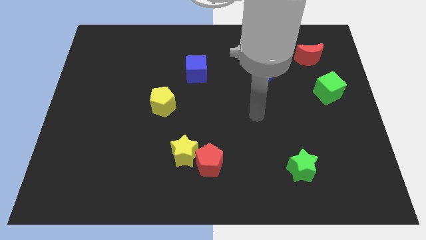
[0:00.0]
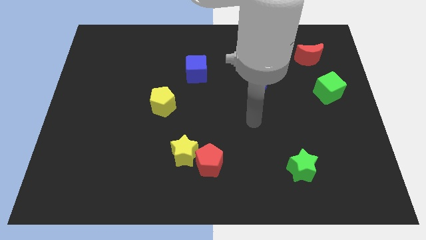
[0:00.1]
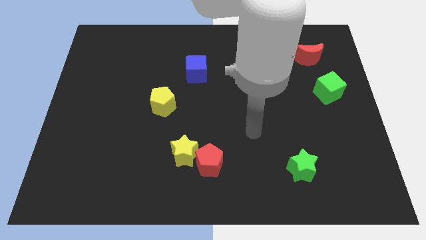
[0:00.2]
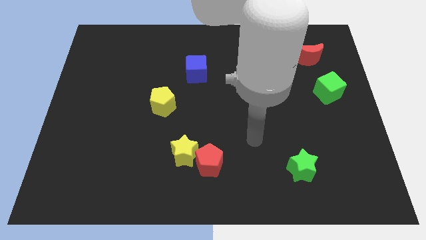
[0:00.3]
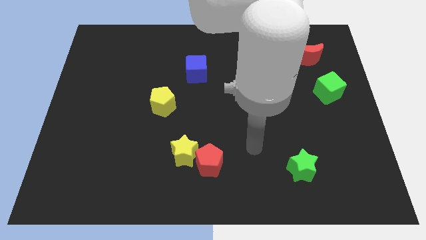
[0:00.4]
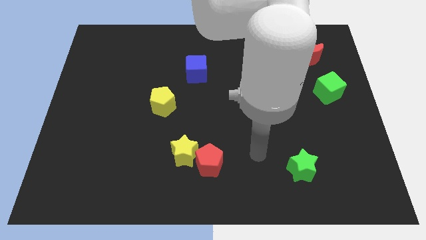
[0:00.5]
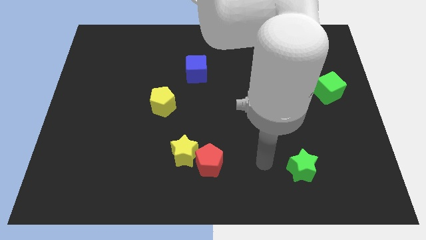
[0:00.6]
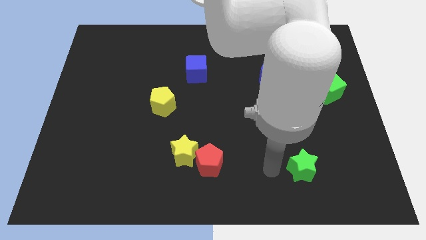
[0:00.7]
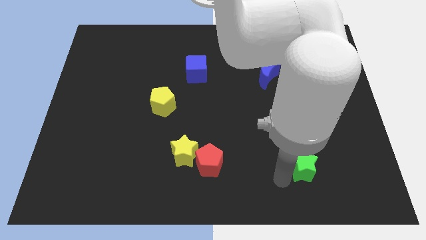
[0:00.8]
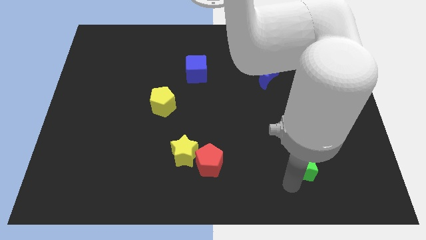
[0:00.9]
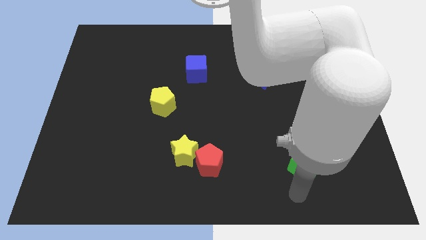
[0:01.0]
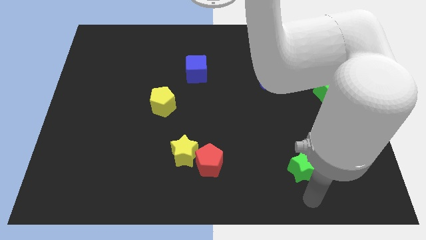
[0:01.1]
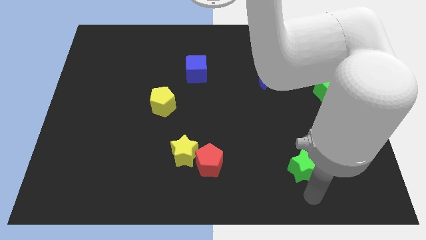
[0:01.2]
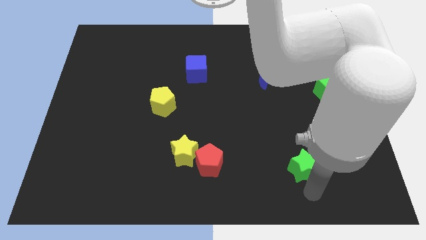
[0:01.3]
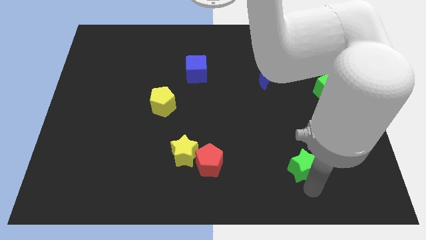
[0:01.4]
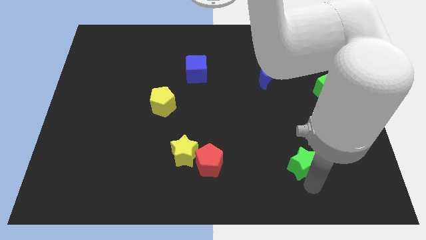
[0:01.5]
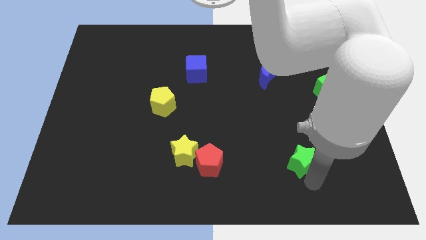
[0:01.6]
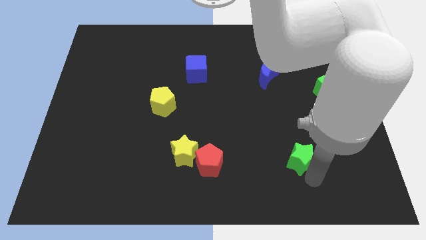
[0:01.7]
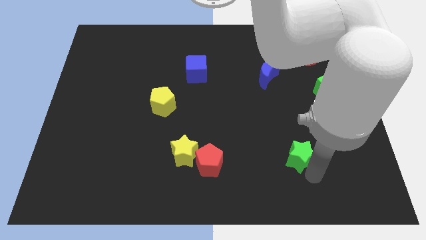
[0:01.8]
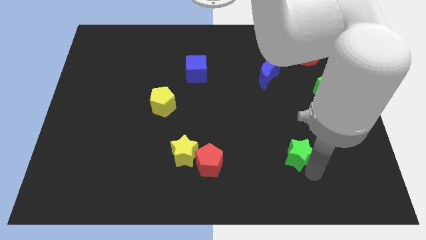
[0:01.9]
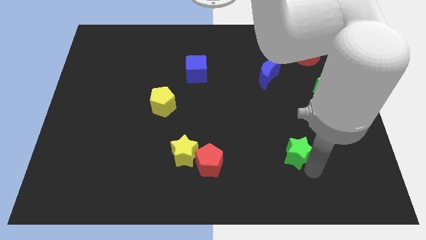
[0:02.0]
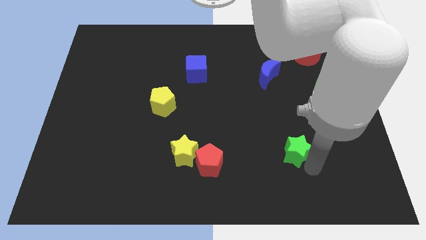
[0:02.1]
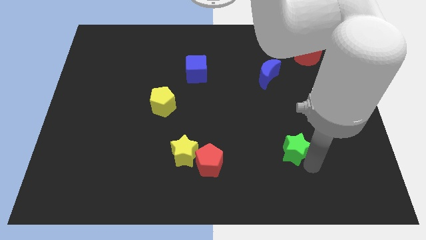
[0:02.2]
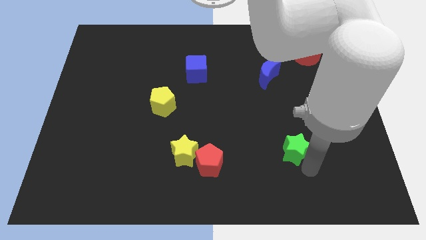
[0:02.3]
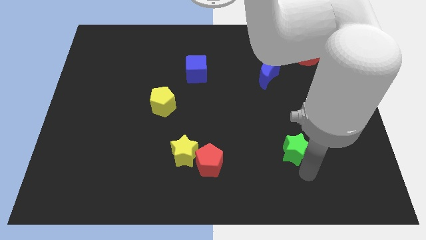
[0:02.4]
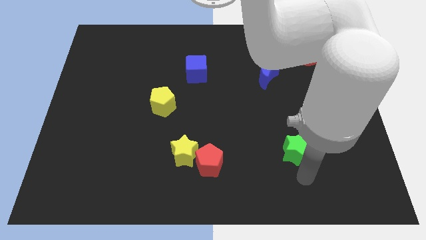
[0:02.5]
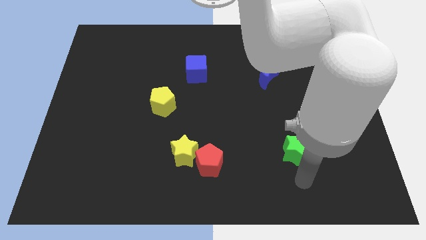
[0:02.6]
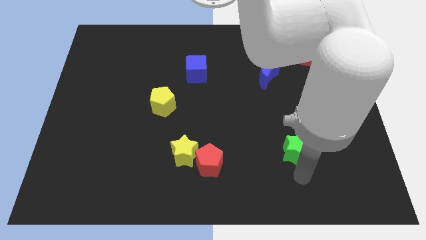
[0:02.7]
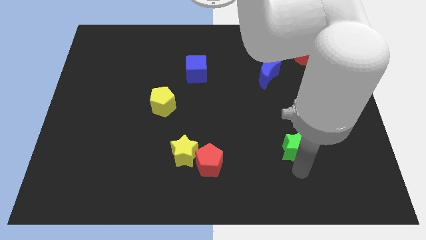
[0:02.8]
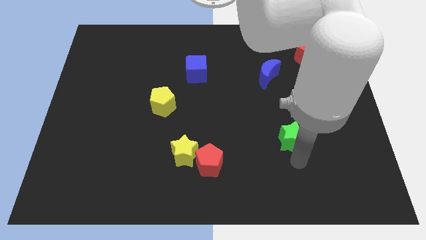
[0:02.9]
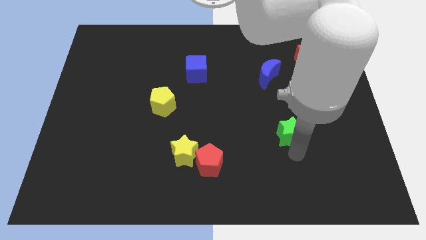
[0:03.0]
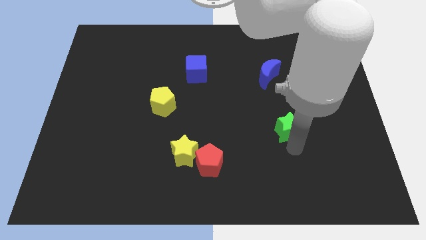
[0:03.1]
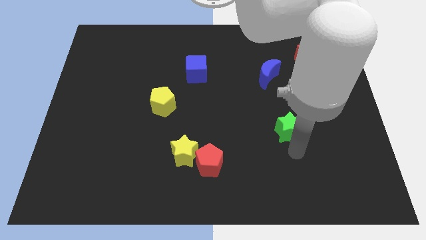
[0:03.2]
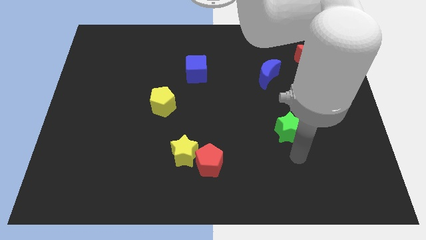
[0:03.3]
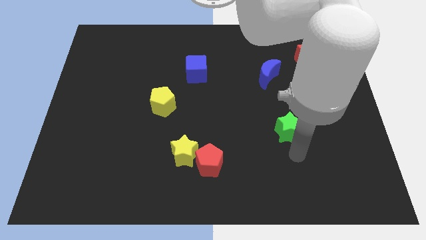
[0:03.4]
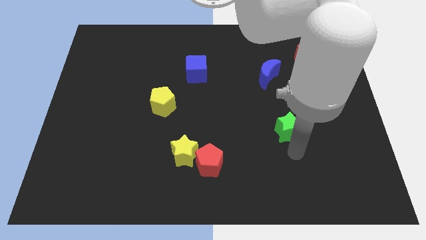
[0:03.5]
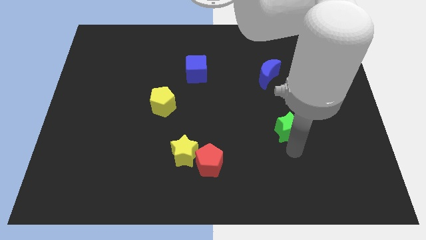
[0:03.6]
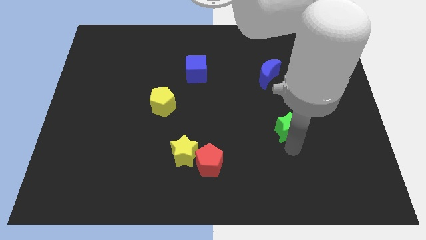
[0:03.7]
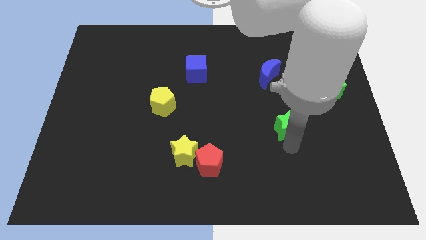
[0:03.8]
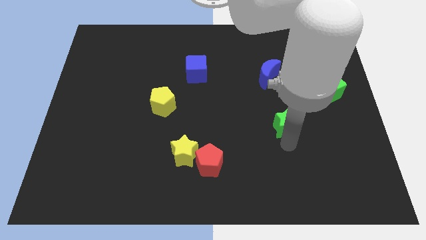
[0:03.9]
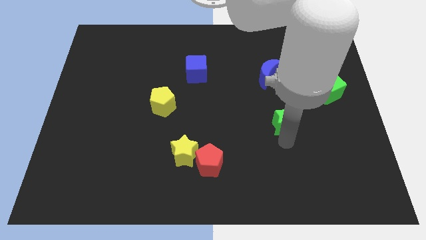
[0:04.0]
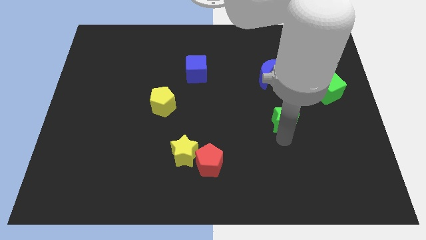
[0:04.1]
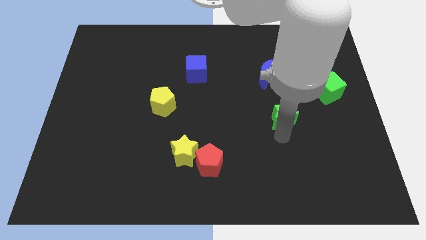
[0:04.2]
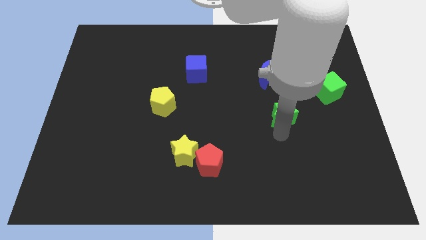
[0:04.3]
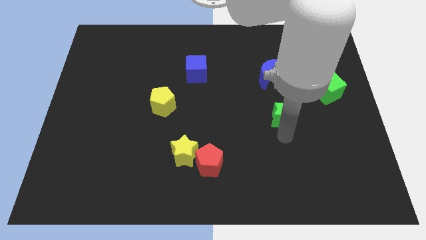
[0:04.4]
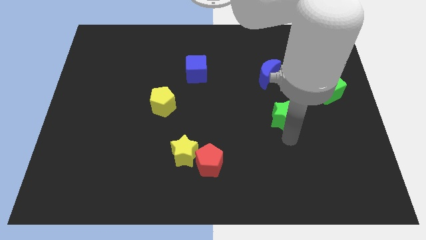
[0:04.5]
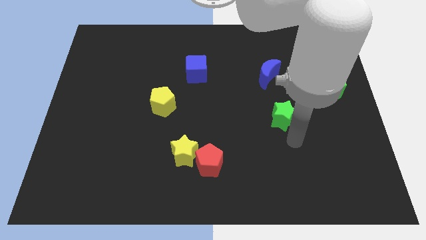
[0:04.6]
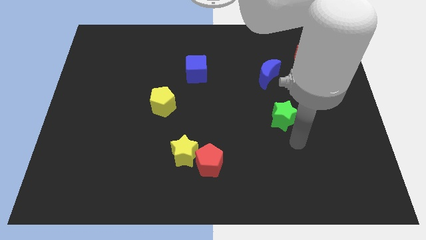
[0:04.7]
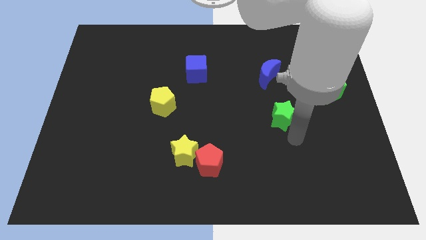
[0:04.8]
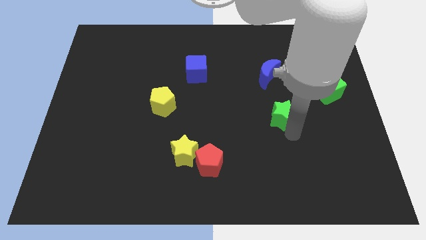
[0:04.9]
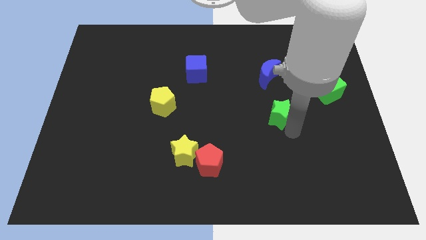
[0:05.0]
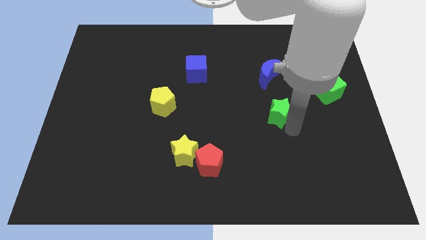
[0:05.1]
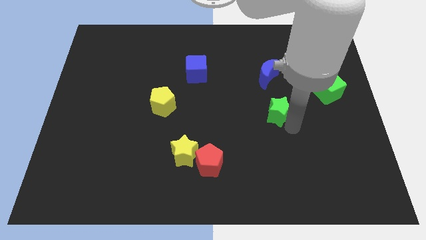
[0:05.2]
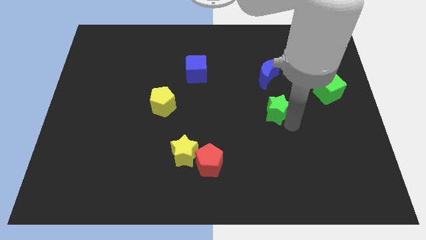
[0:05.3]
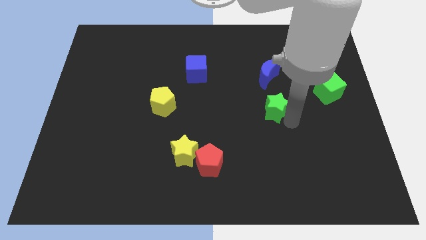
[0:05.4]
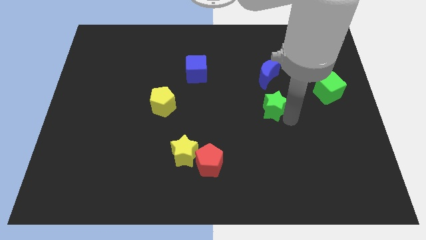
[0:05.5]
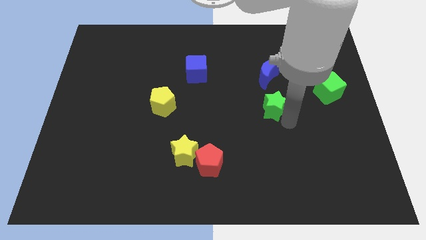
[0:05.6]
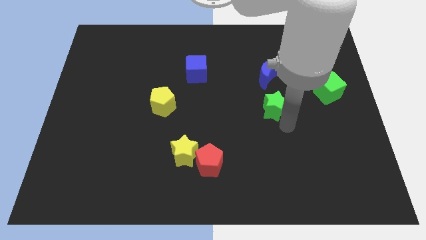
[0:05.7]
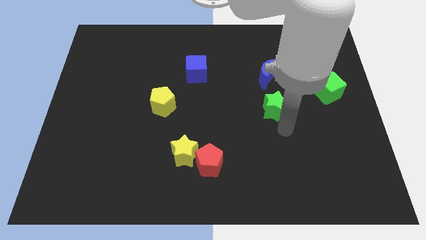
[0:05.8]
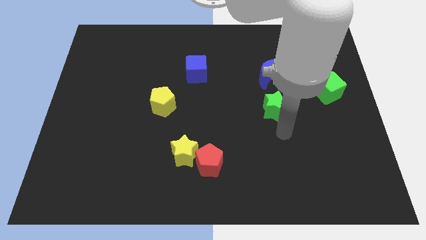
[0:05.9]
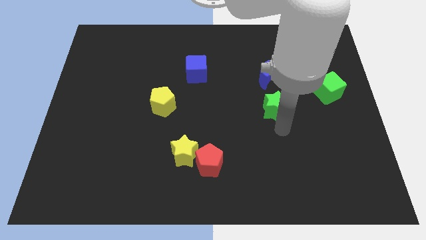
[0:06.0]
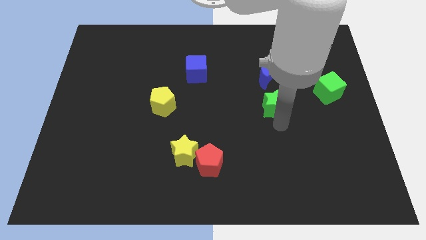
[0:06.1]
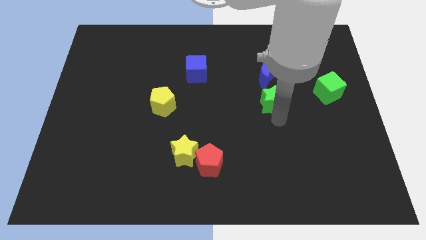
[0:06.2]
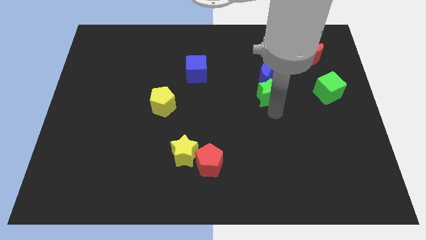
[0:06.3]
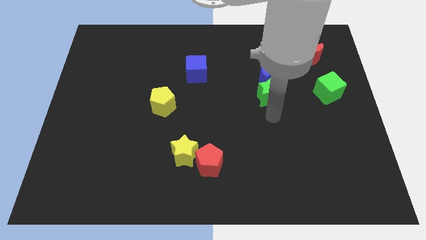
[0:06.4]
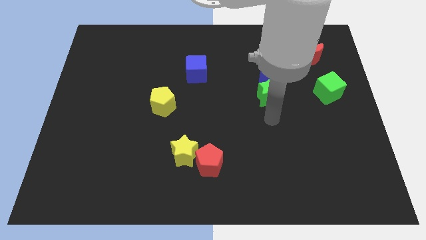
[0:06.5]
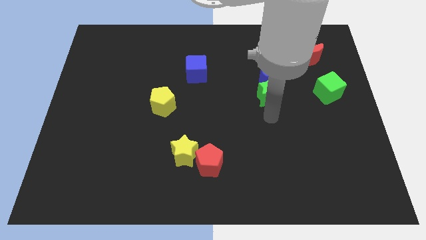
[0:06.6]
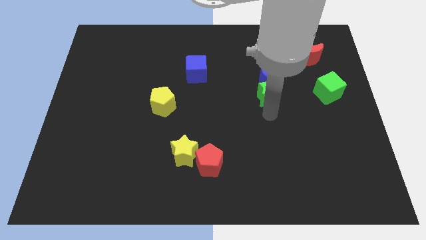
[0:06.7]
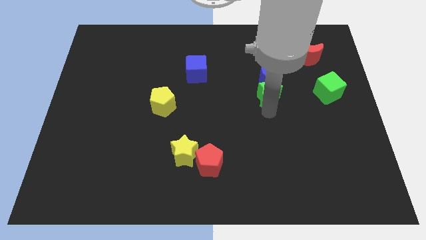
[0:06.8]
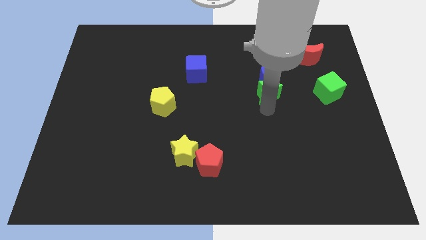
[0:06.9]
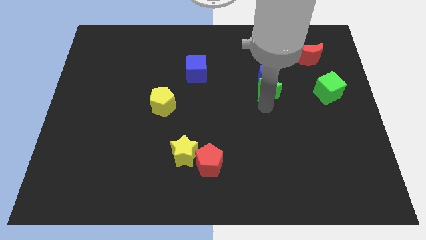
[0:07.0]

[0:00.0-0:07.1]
put the green star to the blue moon

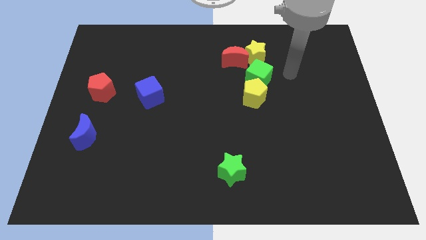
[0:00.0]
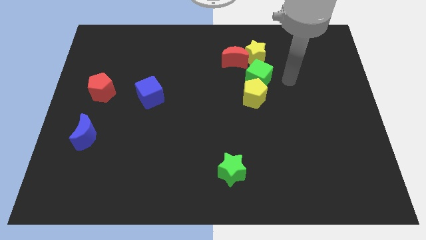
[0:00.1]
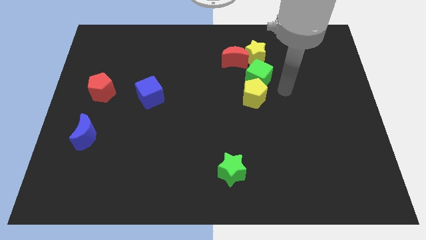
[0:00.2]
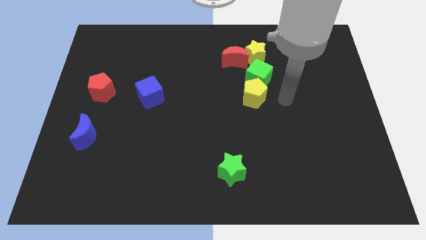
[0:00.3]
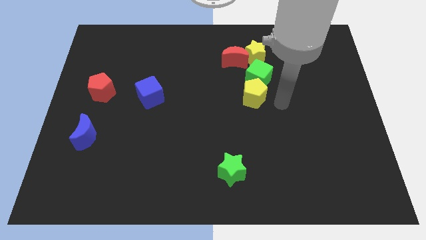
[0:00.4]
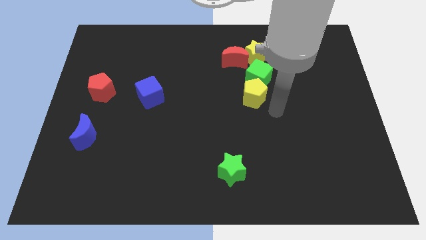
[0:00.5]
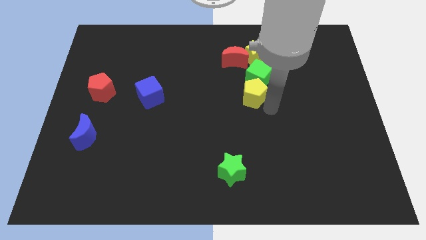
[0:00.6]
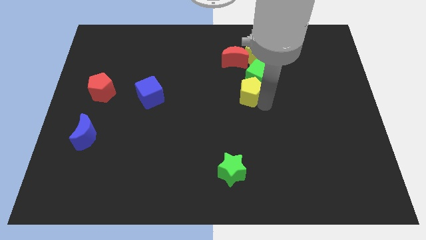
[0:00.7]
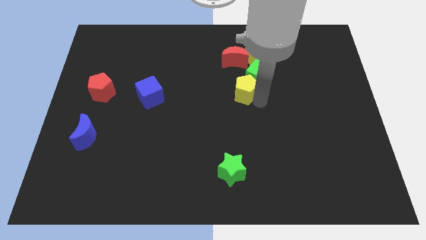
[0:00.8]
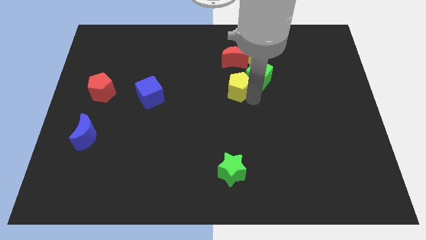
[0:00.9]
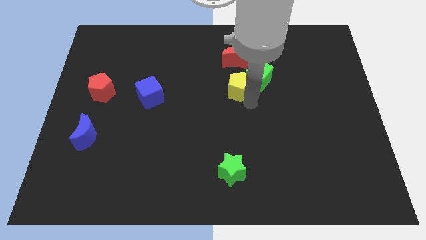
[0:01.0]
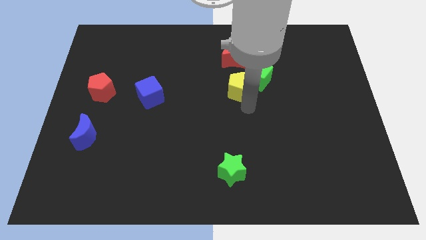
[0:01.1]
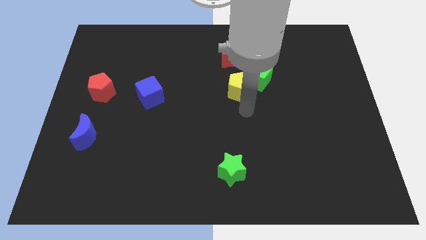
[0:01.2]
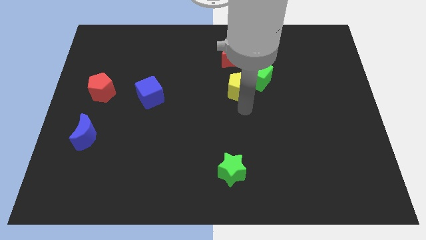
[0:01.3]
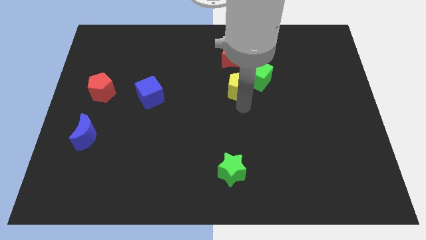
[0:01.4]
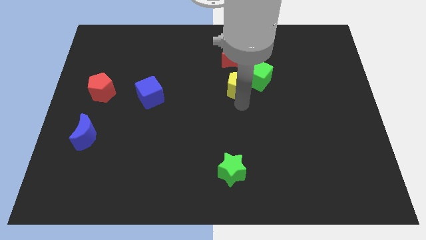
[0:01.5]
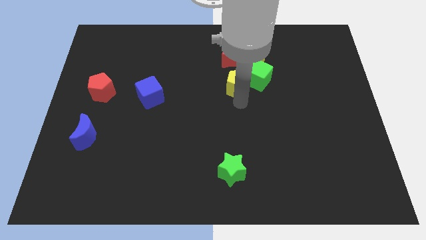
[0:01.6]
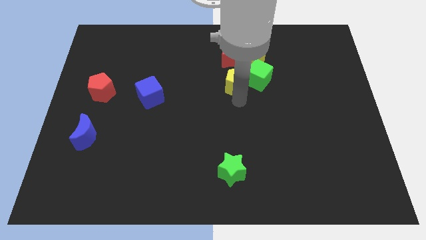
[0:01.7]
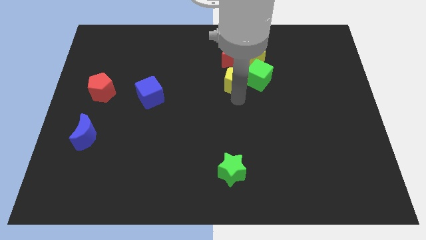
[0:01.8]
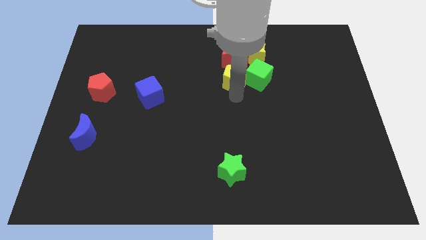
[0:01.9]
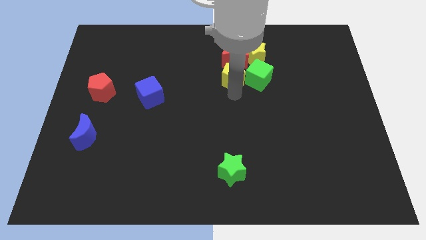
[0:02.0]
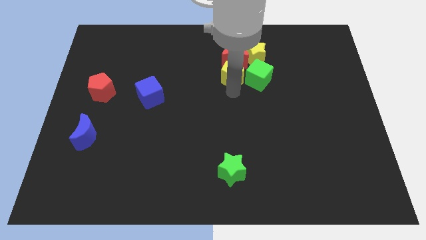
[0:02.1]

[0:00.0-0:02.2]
move the yellow pentagon next to the red moon
